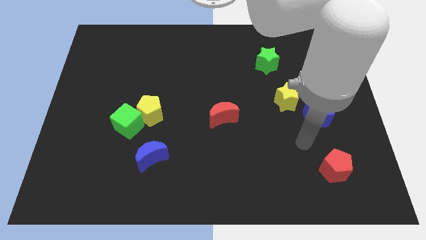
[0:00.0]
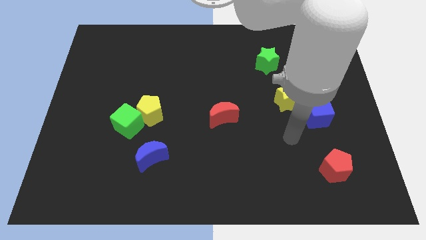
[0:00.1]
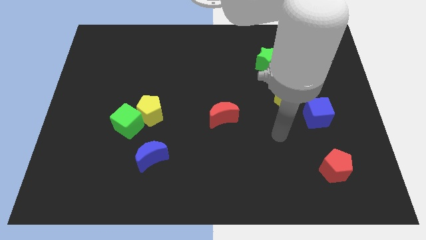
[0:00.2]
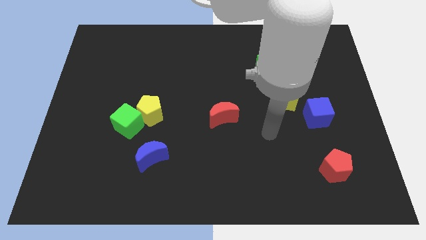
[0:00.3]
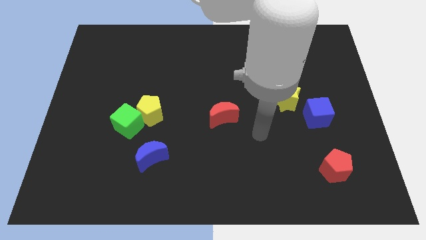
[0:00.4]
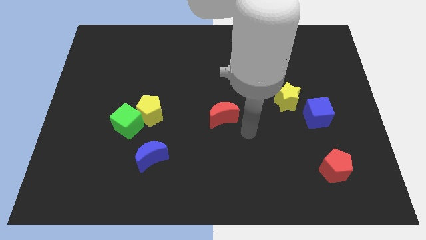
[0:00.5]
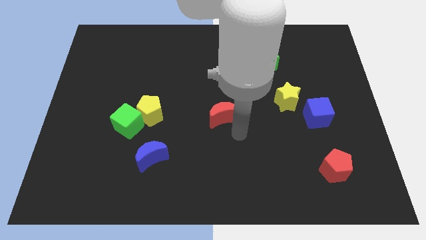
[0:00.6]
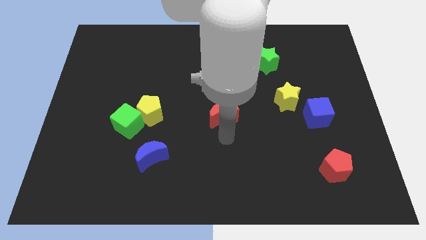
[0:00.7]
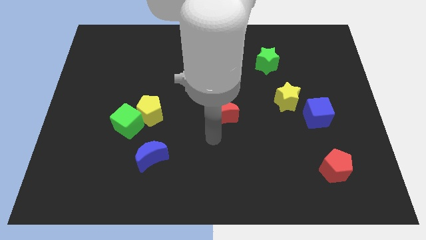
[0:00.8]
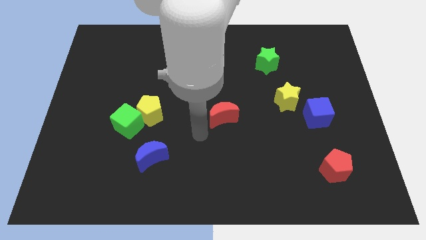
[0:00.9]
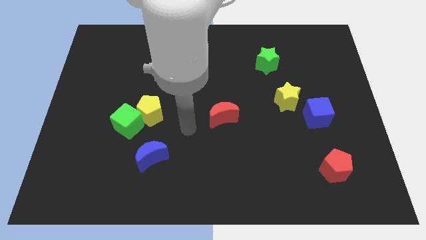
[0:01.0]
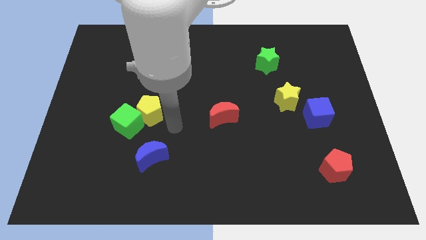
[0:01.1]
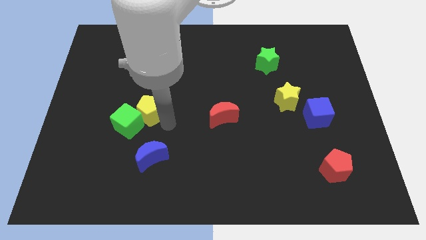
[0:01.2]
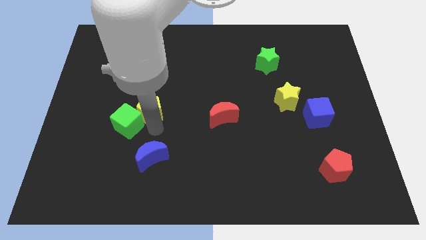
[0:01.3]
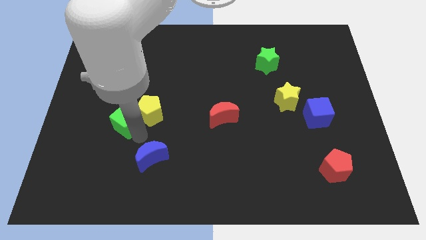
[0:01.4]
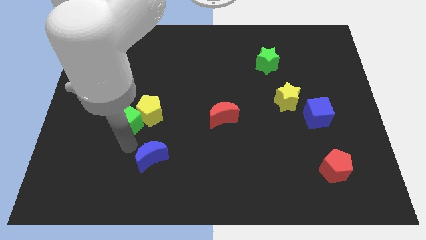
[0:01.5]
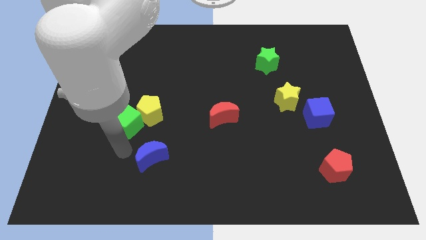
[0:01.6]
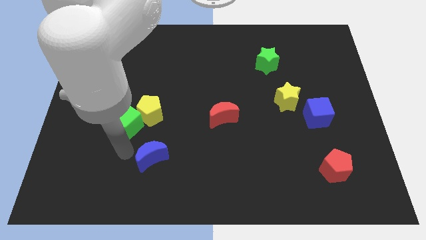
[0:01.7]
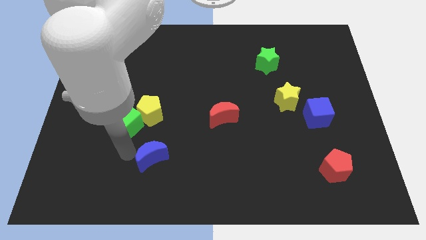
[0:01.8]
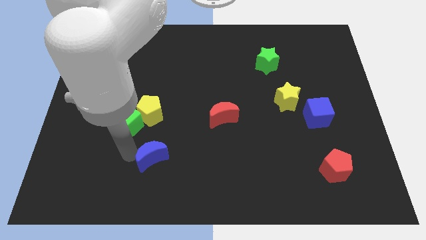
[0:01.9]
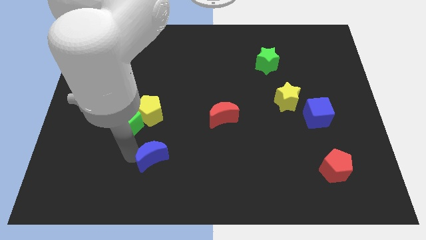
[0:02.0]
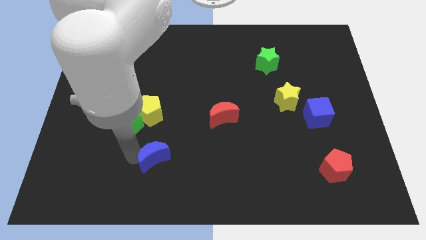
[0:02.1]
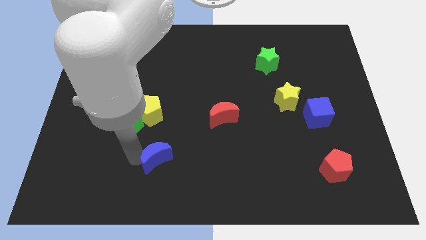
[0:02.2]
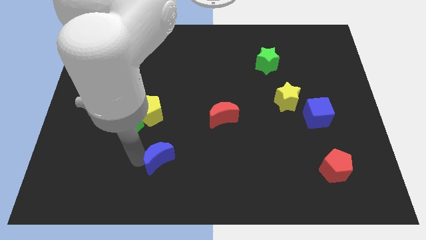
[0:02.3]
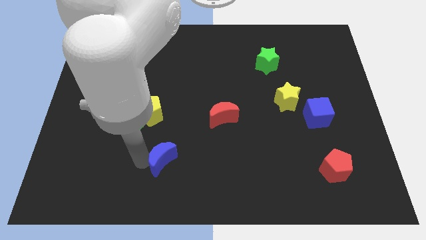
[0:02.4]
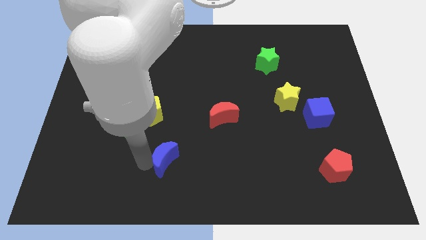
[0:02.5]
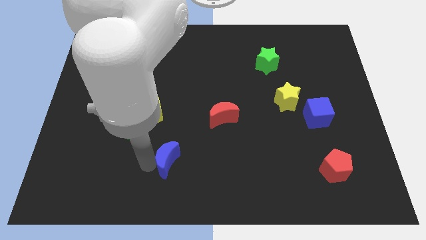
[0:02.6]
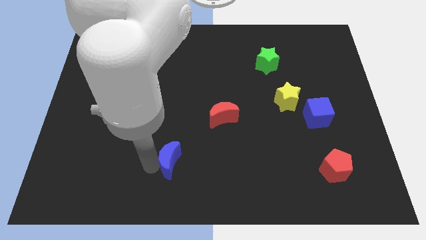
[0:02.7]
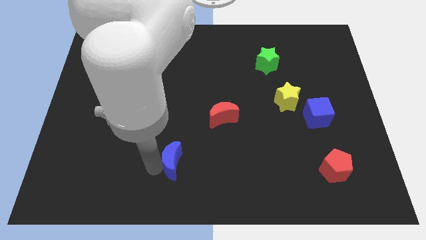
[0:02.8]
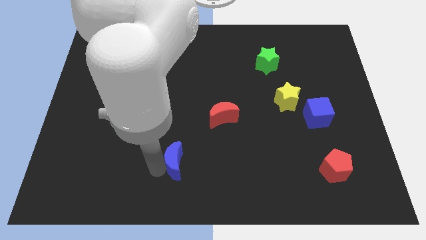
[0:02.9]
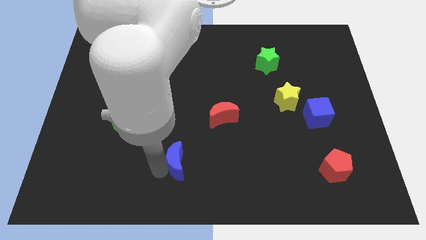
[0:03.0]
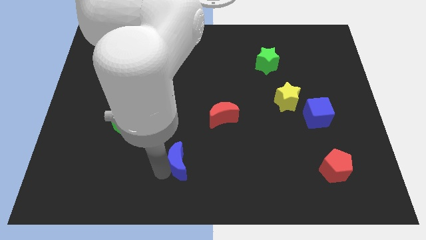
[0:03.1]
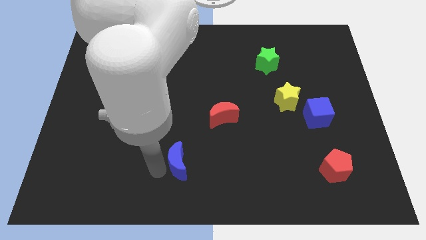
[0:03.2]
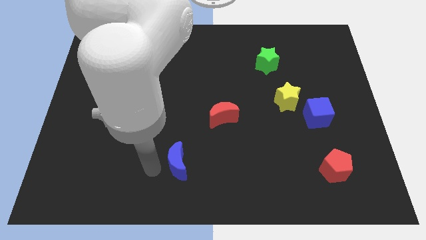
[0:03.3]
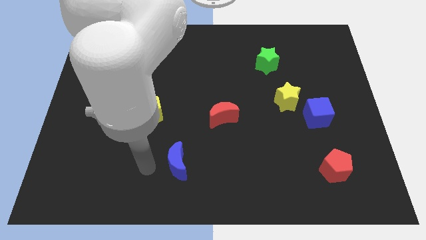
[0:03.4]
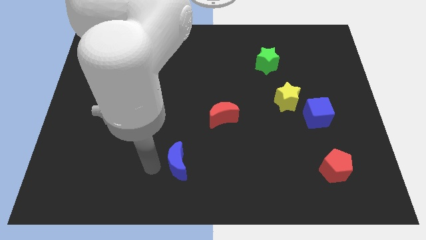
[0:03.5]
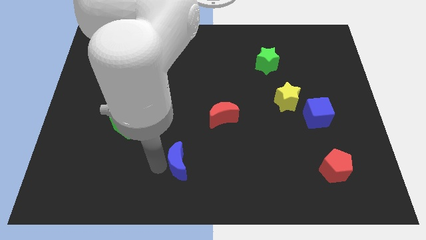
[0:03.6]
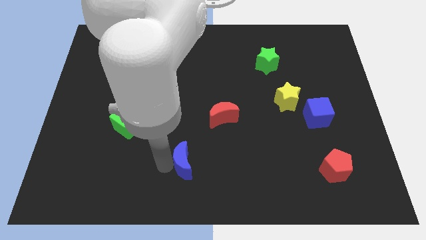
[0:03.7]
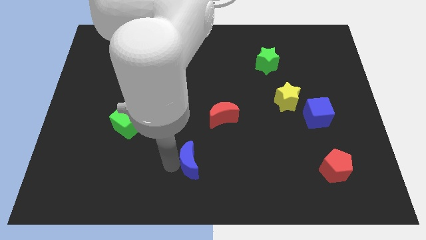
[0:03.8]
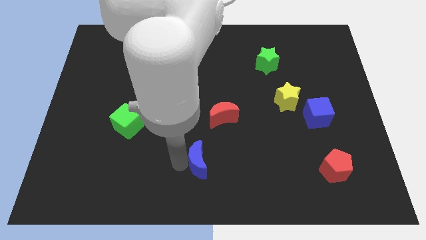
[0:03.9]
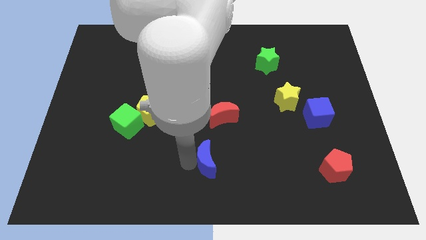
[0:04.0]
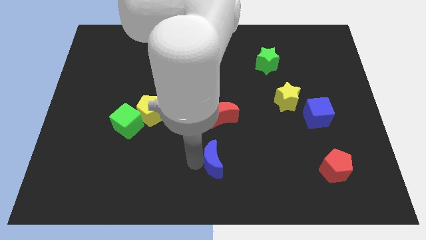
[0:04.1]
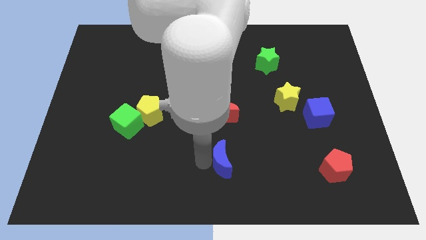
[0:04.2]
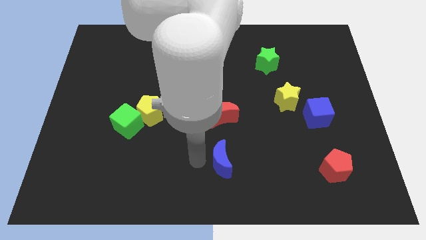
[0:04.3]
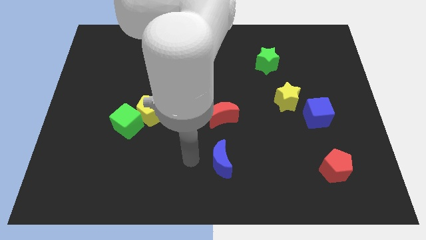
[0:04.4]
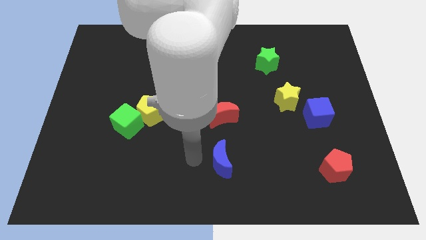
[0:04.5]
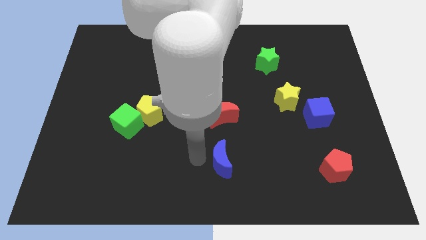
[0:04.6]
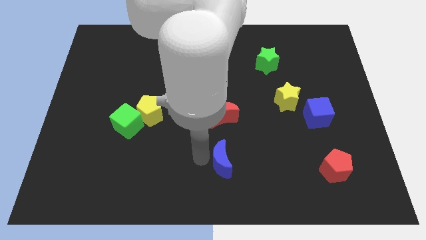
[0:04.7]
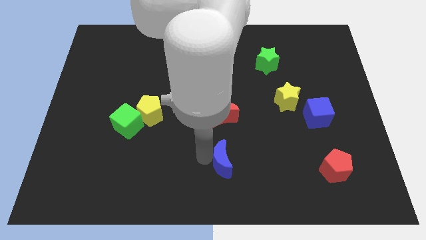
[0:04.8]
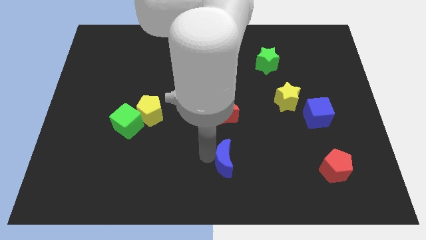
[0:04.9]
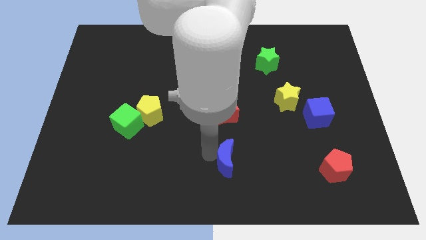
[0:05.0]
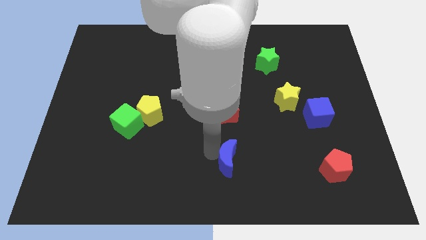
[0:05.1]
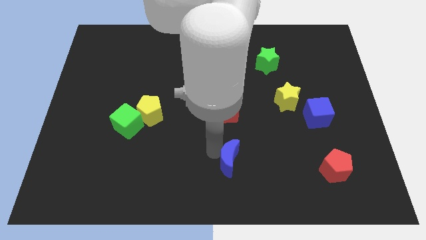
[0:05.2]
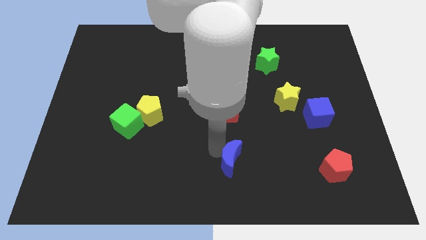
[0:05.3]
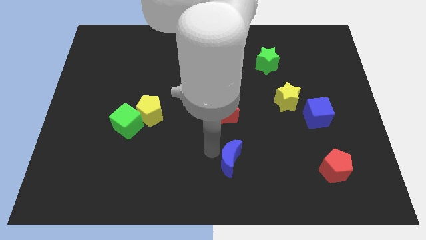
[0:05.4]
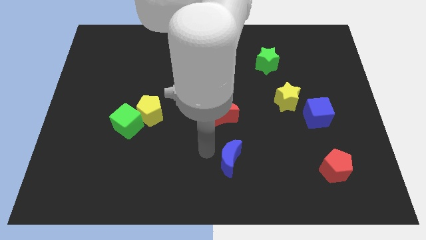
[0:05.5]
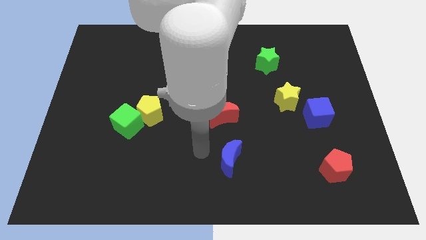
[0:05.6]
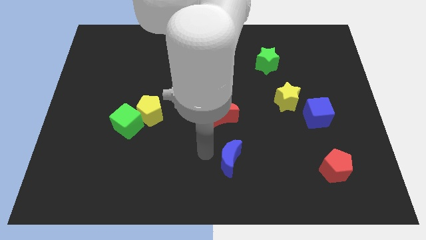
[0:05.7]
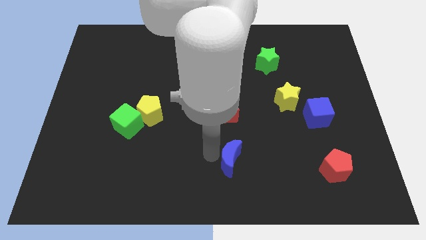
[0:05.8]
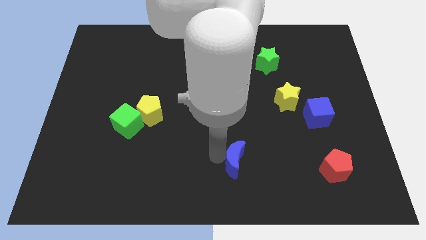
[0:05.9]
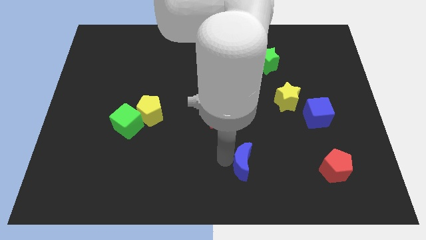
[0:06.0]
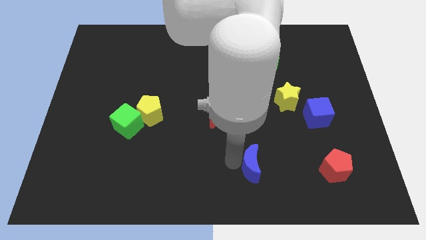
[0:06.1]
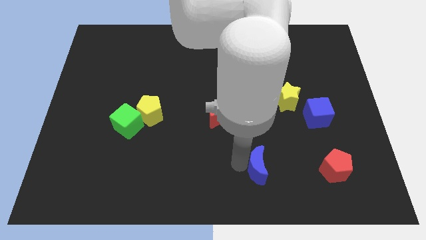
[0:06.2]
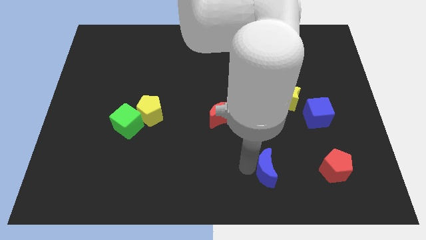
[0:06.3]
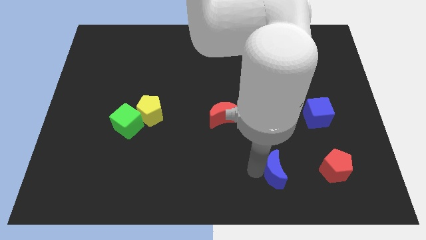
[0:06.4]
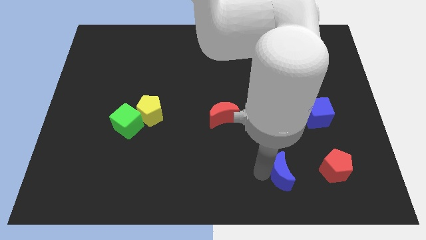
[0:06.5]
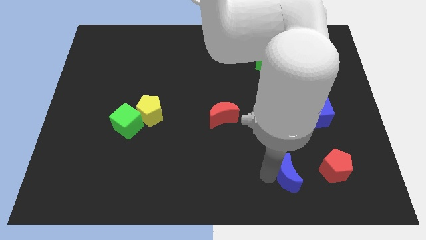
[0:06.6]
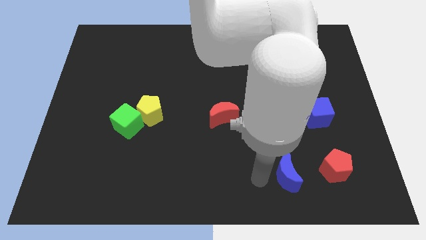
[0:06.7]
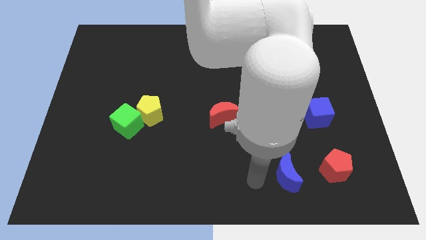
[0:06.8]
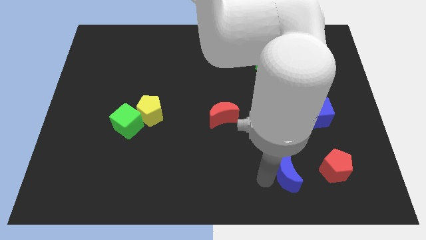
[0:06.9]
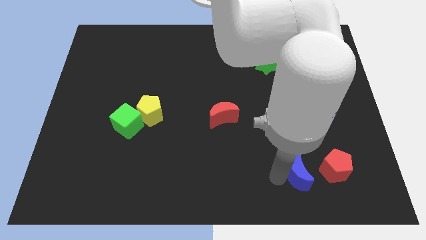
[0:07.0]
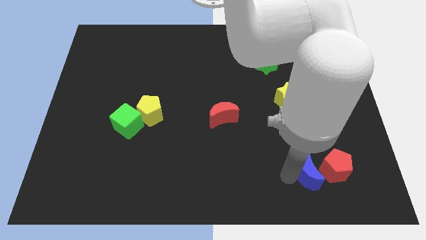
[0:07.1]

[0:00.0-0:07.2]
move the blue moon next to the red pentagon
